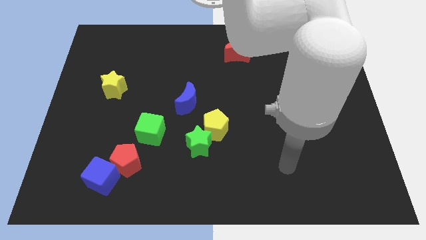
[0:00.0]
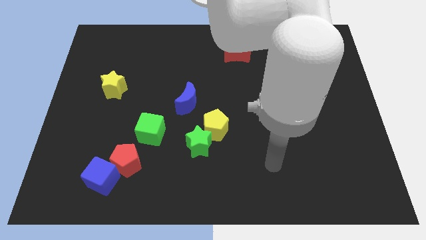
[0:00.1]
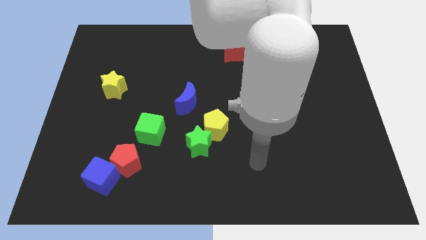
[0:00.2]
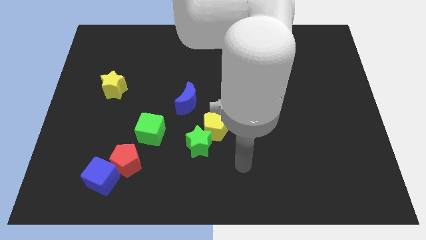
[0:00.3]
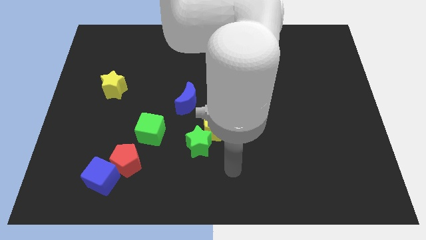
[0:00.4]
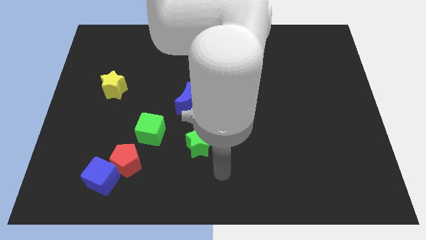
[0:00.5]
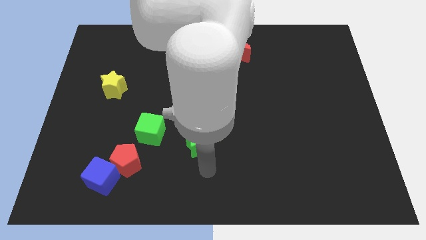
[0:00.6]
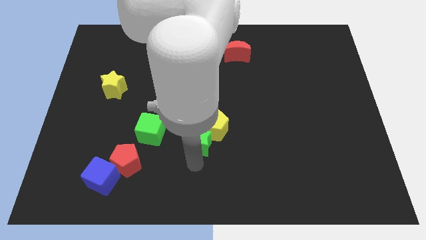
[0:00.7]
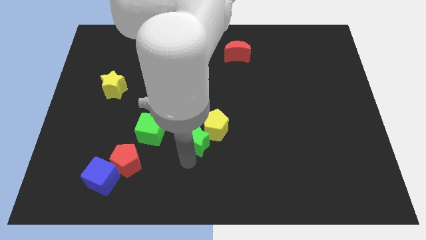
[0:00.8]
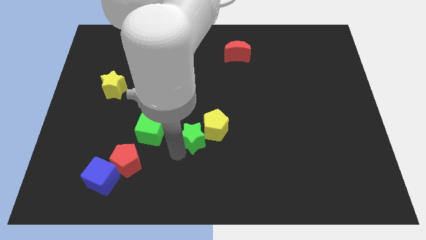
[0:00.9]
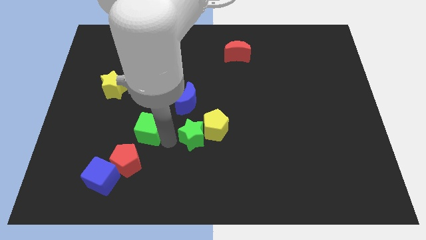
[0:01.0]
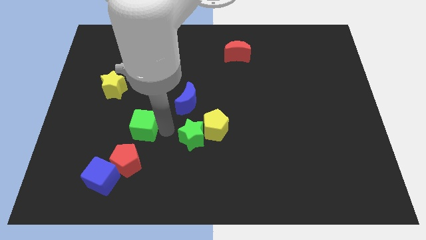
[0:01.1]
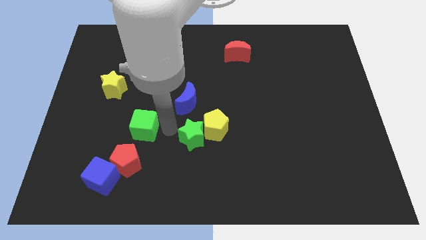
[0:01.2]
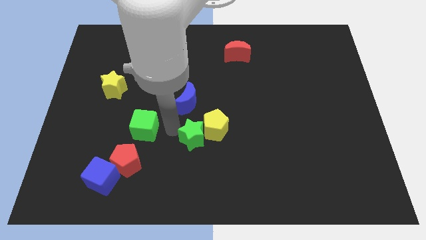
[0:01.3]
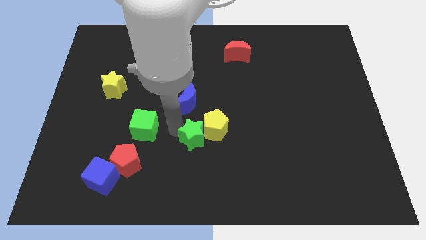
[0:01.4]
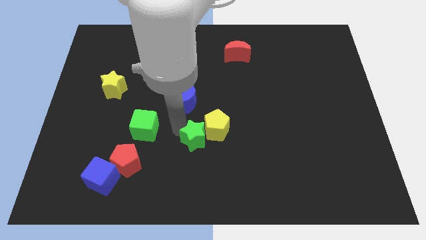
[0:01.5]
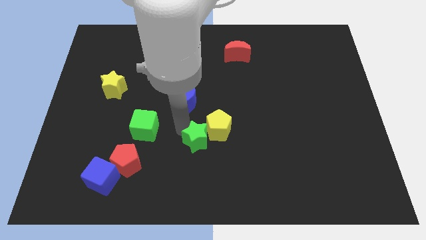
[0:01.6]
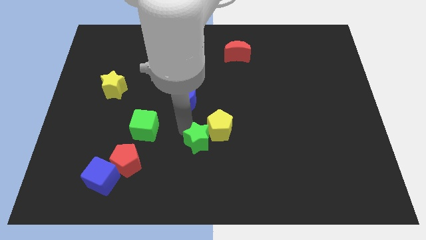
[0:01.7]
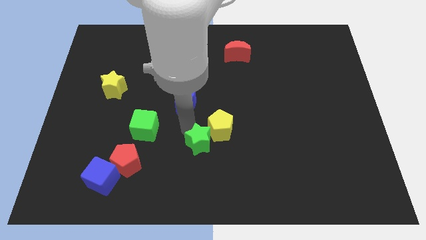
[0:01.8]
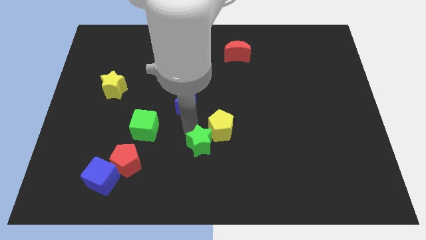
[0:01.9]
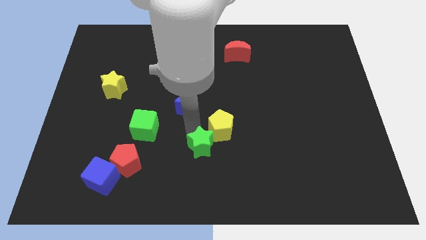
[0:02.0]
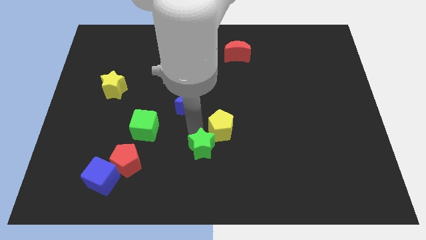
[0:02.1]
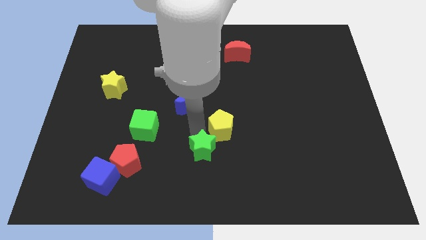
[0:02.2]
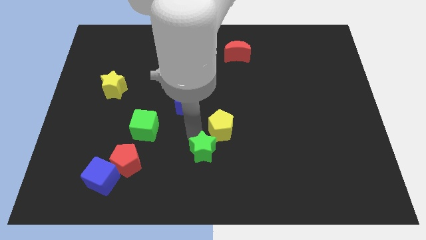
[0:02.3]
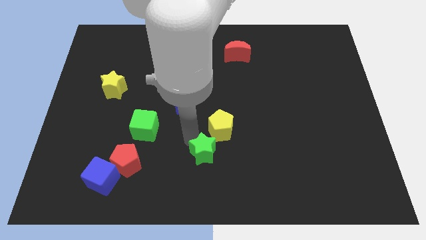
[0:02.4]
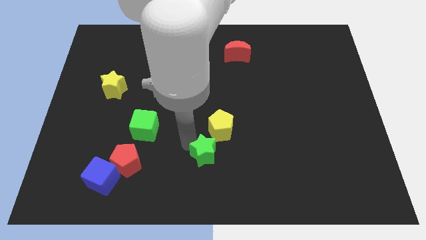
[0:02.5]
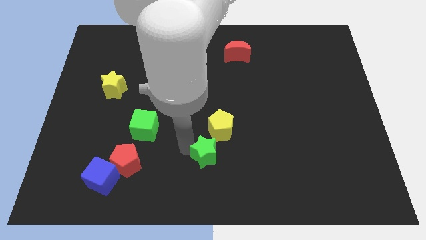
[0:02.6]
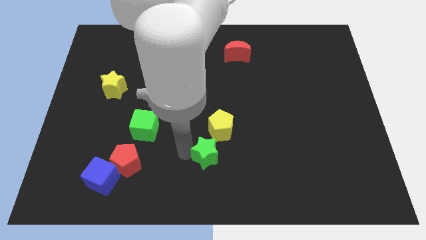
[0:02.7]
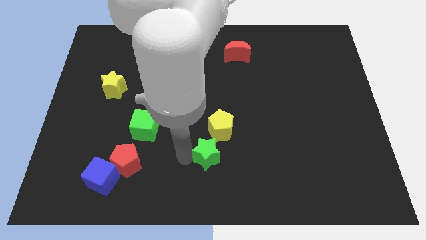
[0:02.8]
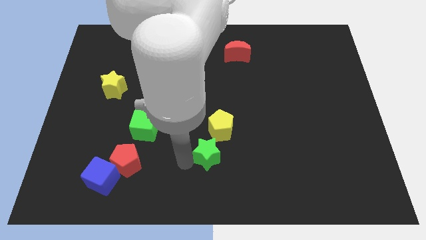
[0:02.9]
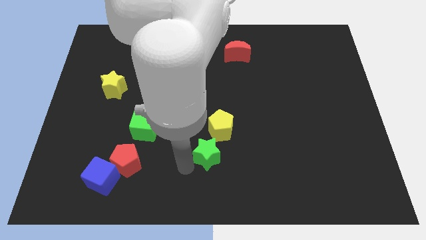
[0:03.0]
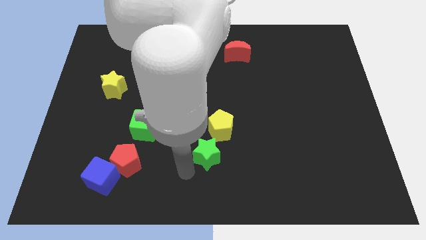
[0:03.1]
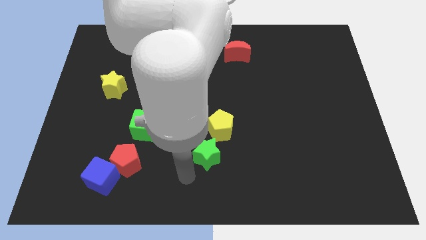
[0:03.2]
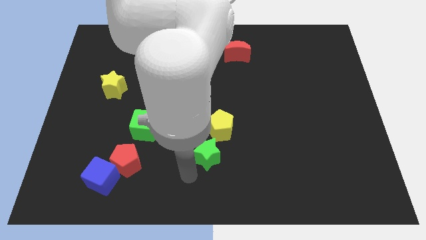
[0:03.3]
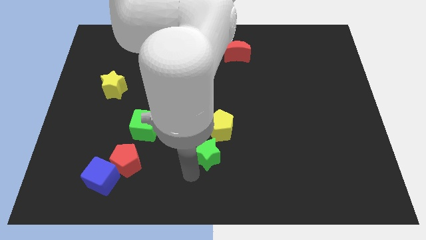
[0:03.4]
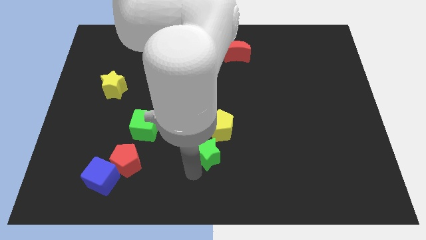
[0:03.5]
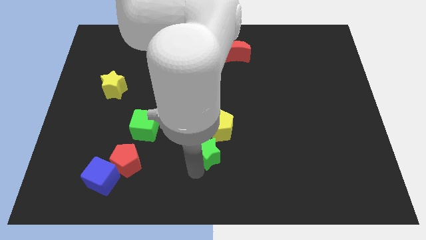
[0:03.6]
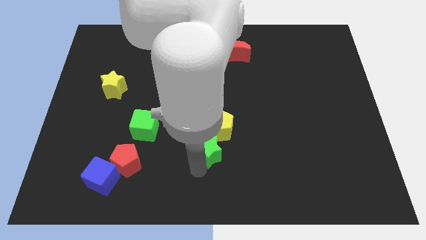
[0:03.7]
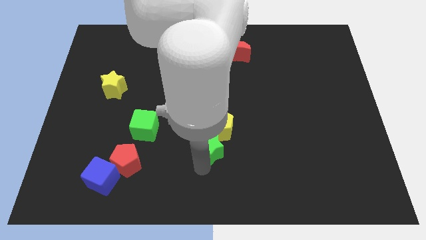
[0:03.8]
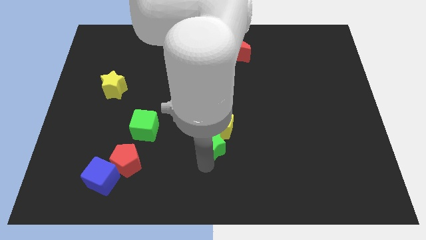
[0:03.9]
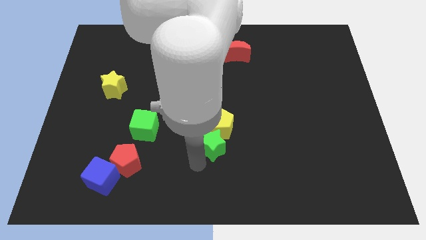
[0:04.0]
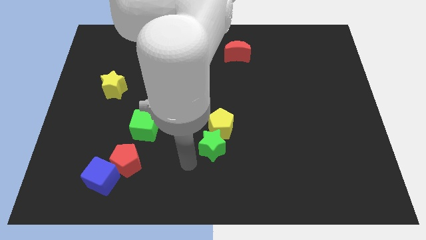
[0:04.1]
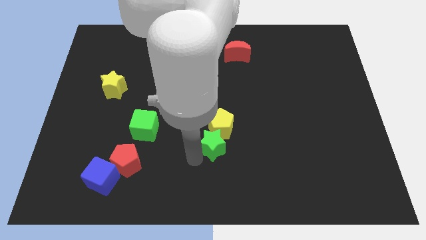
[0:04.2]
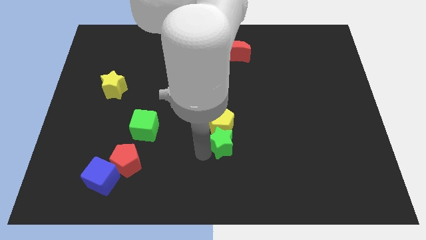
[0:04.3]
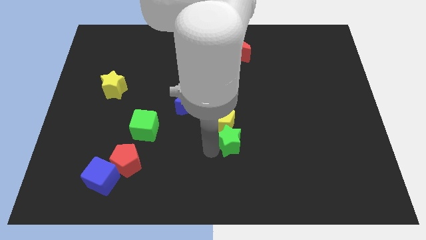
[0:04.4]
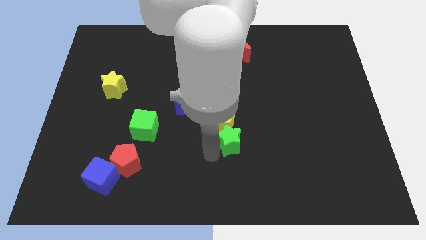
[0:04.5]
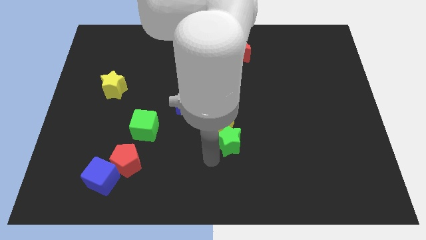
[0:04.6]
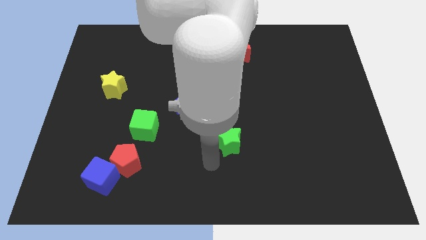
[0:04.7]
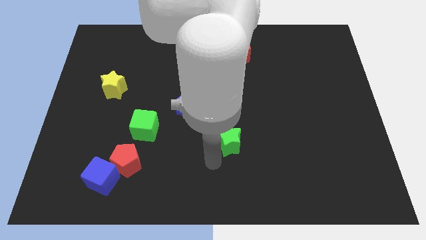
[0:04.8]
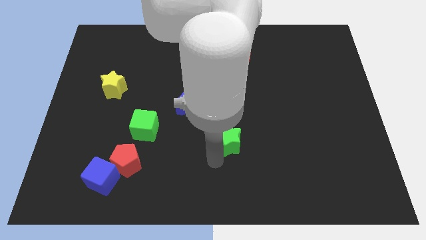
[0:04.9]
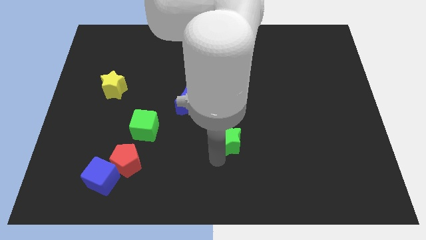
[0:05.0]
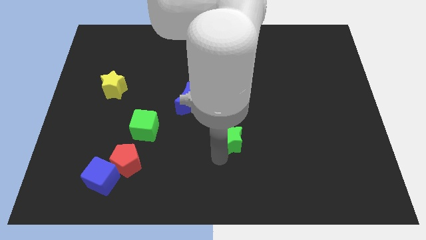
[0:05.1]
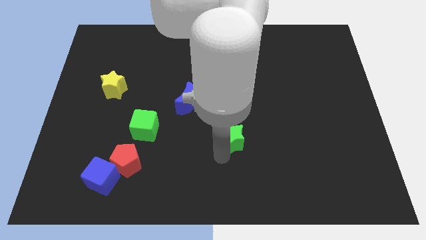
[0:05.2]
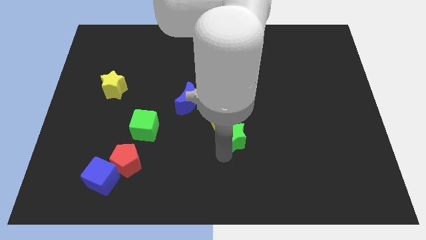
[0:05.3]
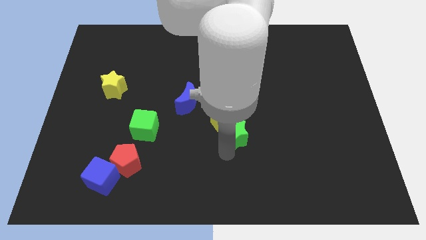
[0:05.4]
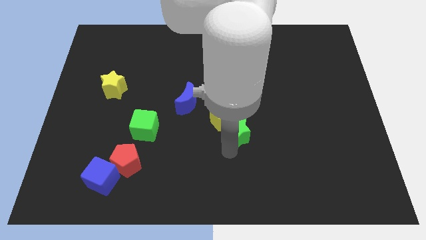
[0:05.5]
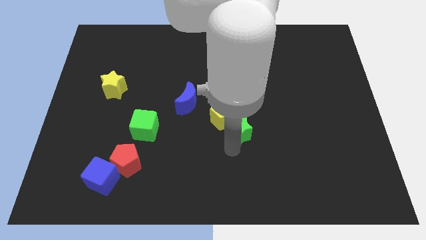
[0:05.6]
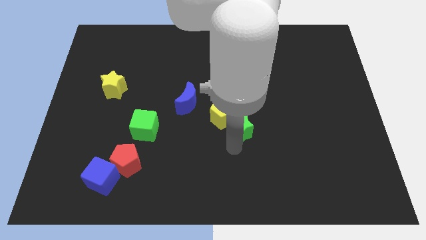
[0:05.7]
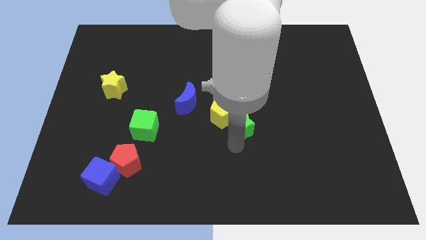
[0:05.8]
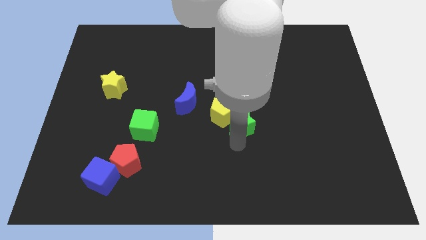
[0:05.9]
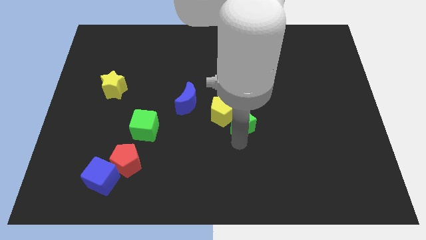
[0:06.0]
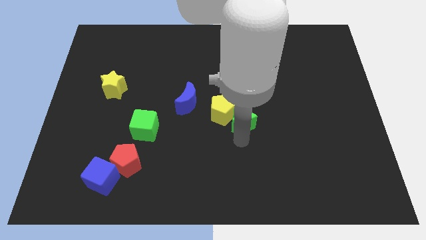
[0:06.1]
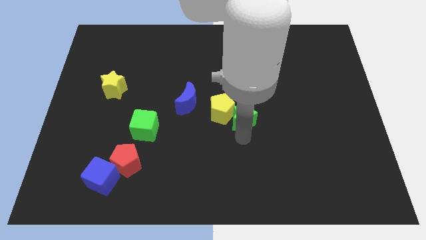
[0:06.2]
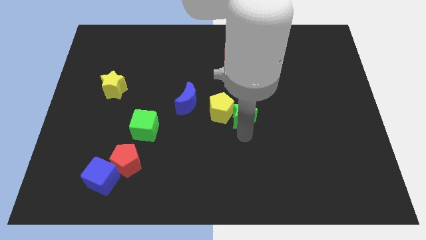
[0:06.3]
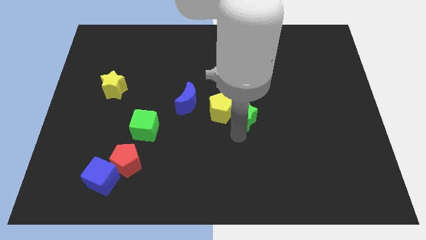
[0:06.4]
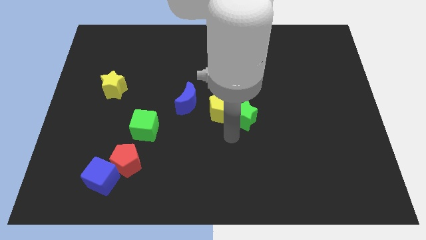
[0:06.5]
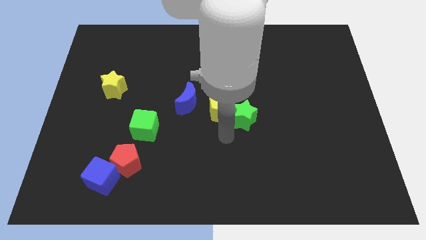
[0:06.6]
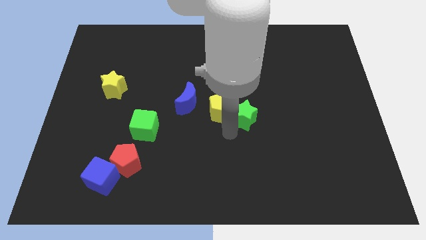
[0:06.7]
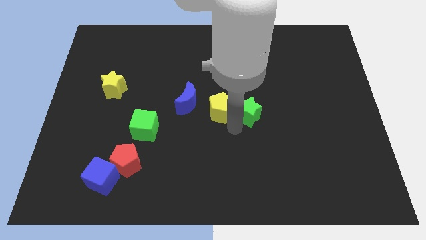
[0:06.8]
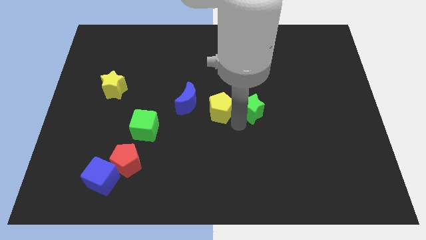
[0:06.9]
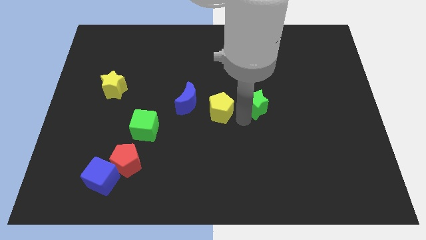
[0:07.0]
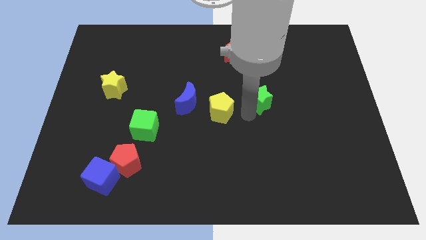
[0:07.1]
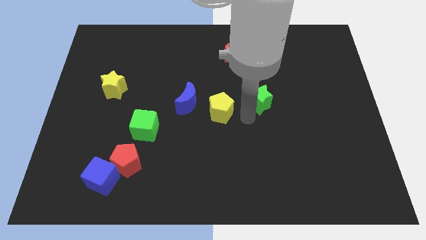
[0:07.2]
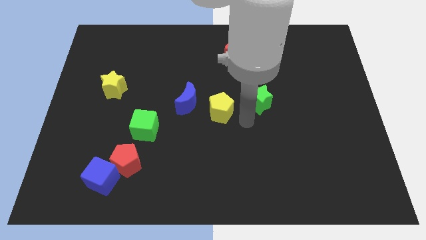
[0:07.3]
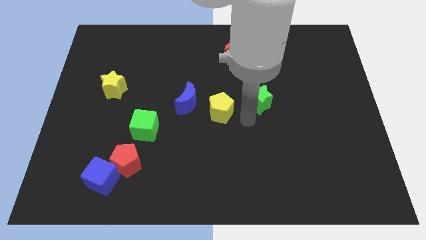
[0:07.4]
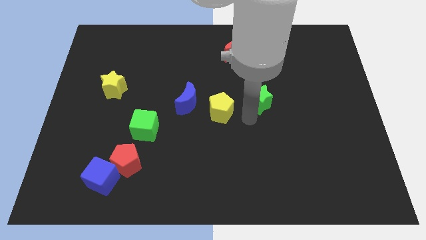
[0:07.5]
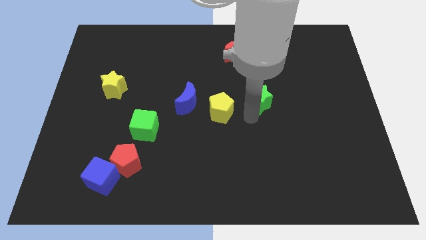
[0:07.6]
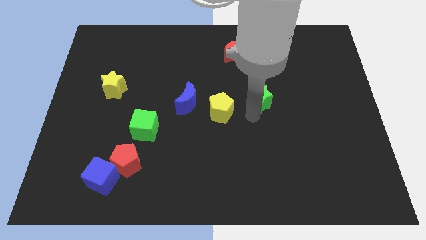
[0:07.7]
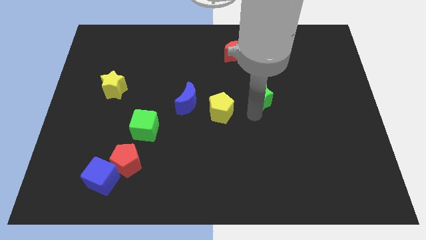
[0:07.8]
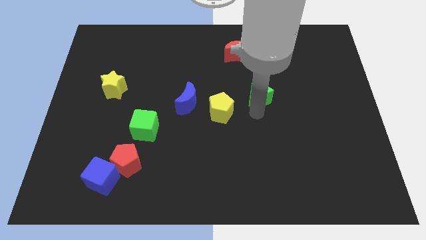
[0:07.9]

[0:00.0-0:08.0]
push the green star upwards and right diagonally

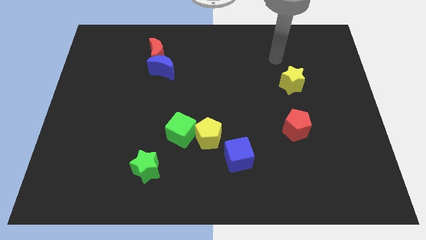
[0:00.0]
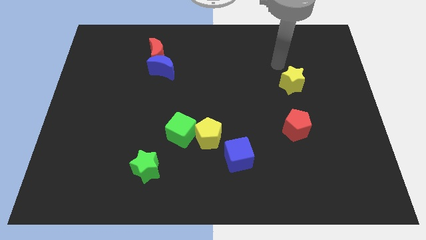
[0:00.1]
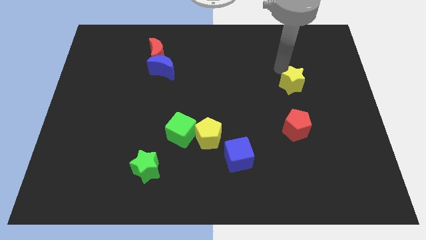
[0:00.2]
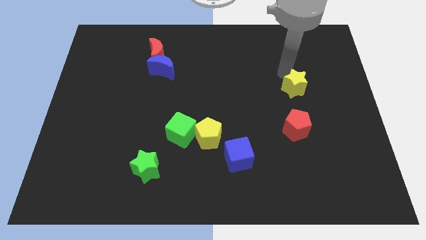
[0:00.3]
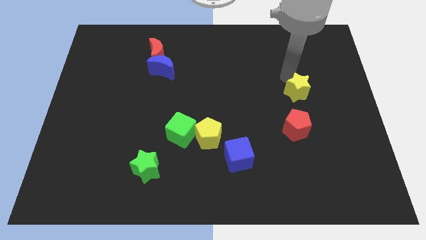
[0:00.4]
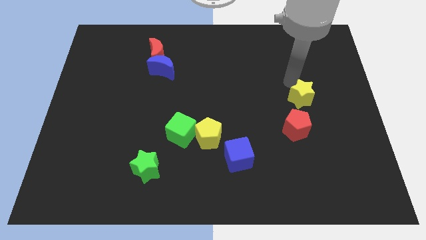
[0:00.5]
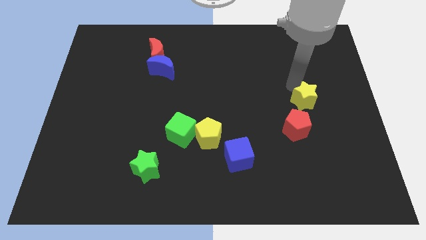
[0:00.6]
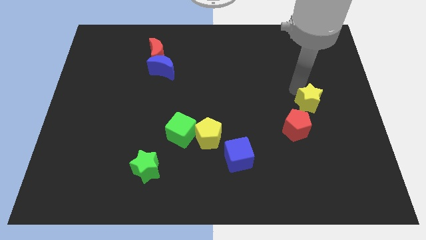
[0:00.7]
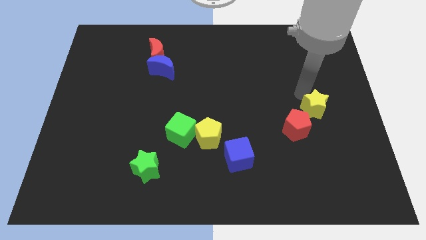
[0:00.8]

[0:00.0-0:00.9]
slightly slide the yellow star down
